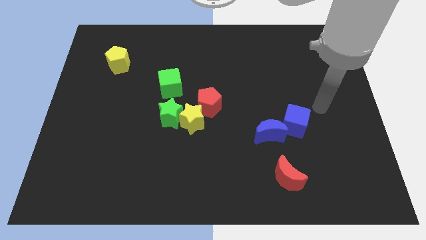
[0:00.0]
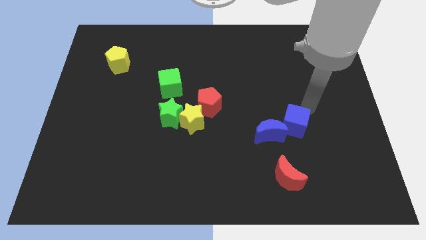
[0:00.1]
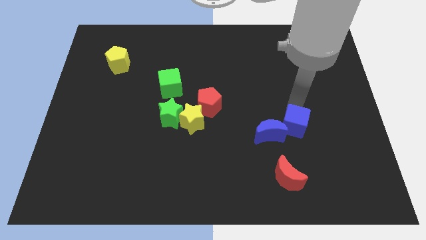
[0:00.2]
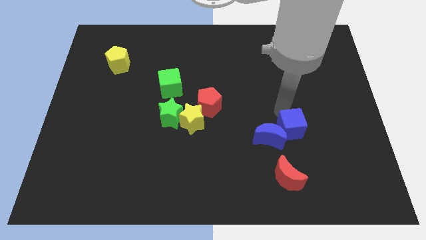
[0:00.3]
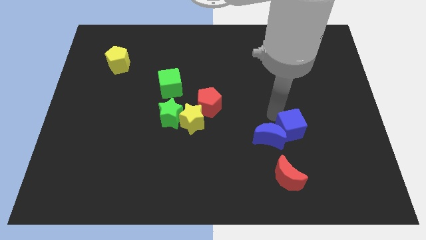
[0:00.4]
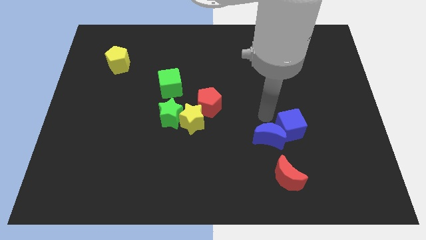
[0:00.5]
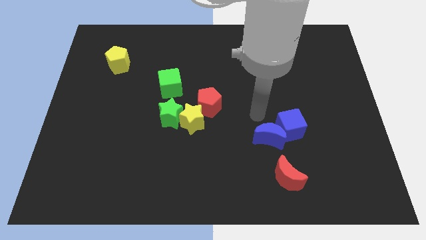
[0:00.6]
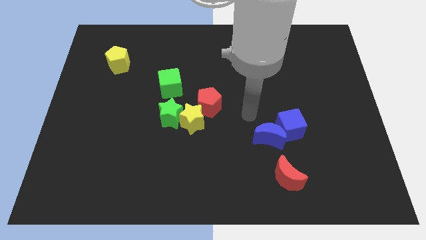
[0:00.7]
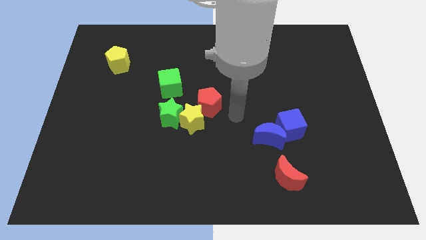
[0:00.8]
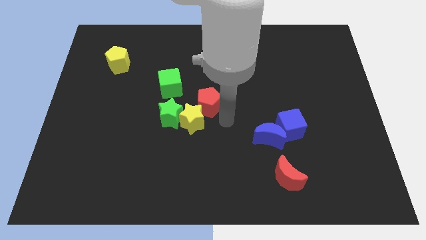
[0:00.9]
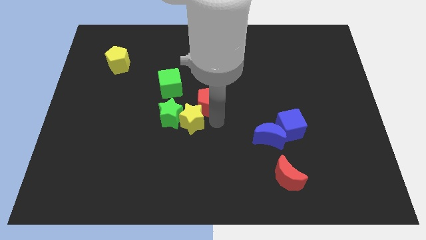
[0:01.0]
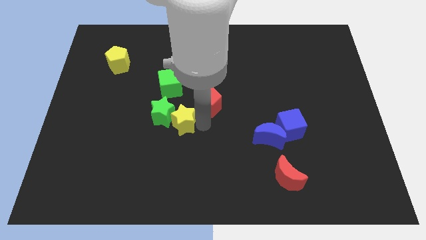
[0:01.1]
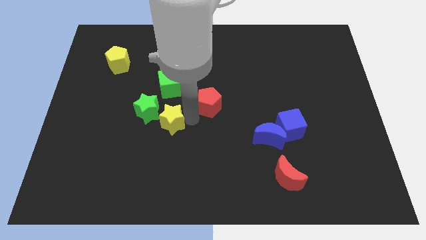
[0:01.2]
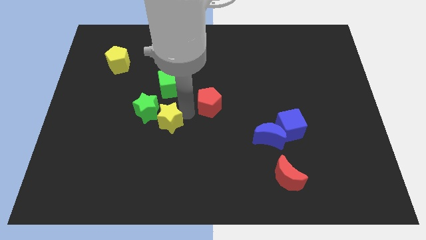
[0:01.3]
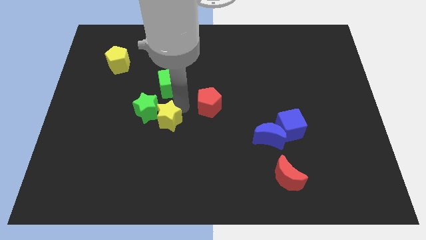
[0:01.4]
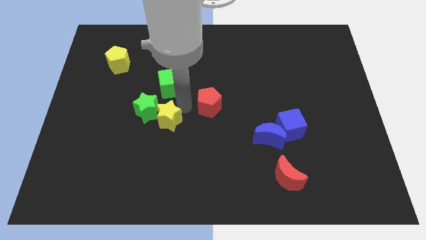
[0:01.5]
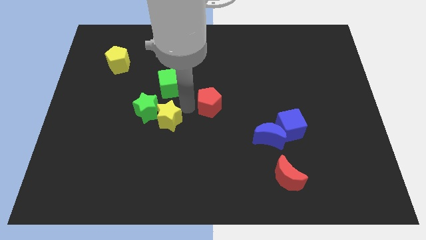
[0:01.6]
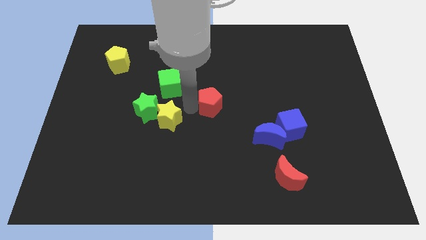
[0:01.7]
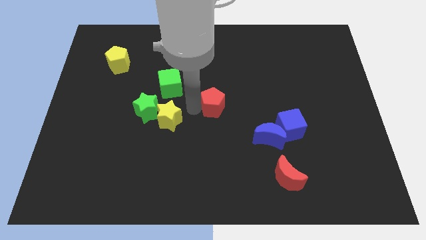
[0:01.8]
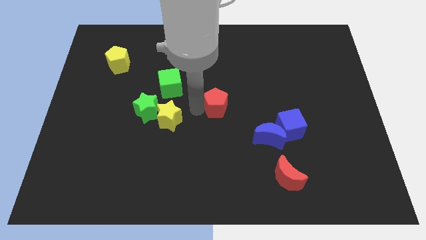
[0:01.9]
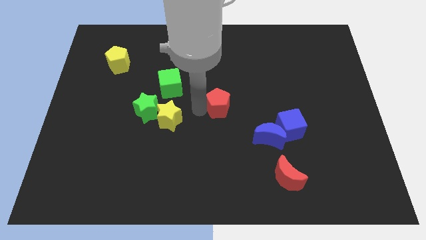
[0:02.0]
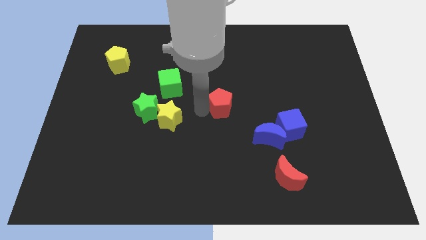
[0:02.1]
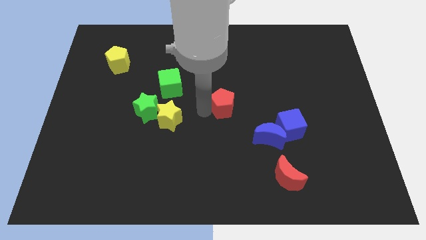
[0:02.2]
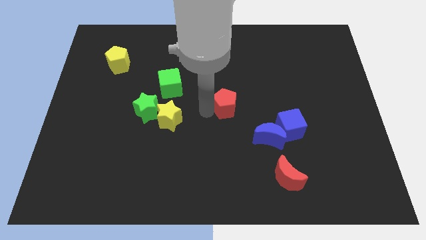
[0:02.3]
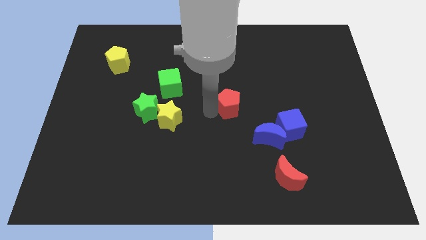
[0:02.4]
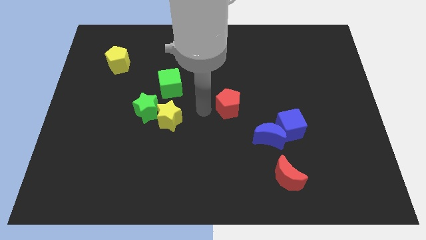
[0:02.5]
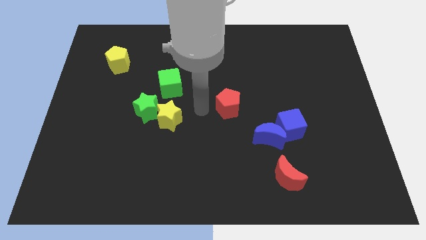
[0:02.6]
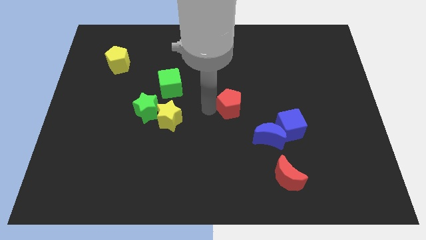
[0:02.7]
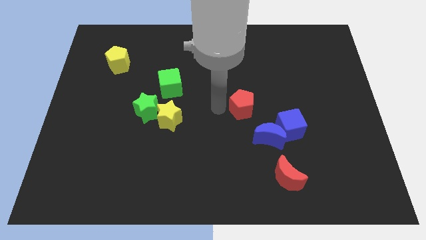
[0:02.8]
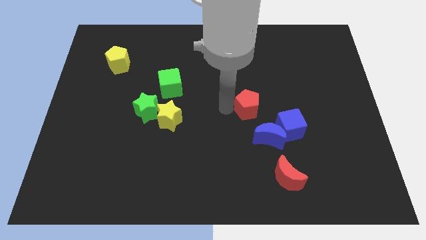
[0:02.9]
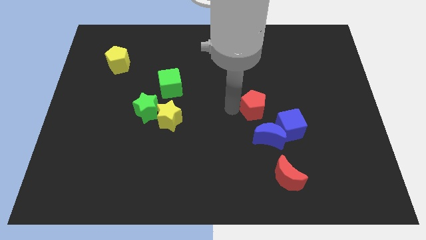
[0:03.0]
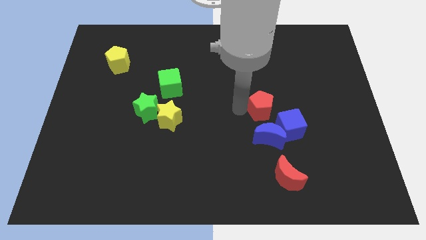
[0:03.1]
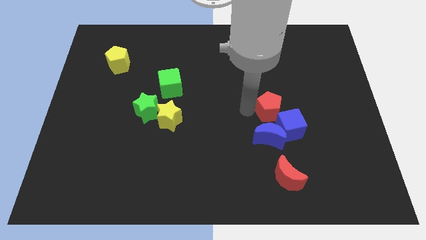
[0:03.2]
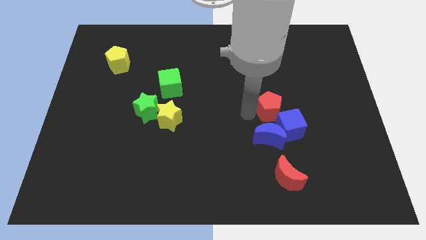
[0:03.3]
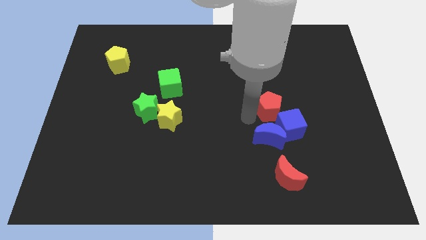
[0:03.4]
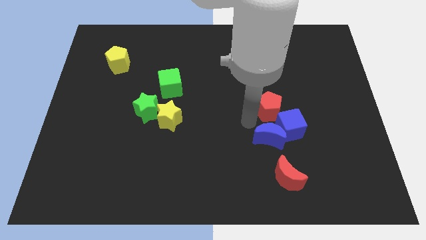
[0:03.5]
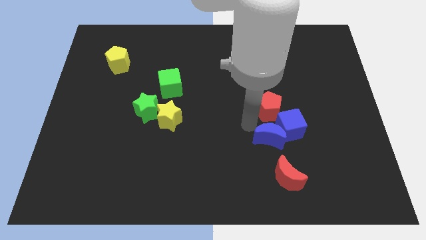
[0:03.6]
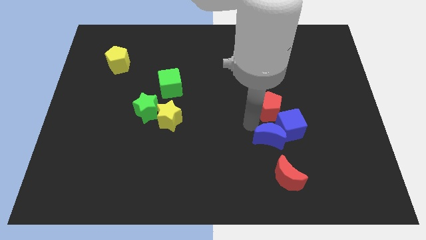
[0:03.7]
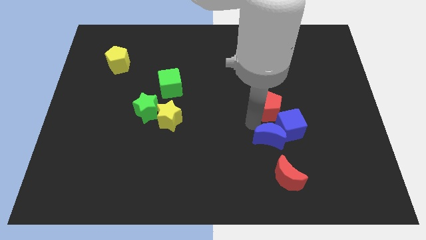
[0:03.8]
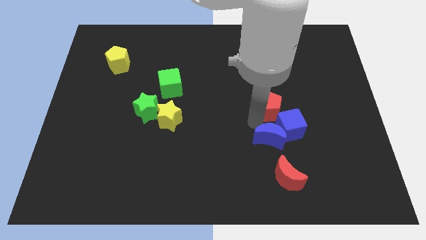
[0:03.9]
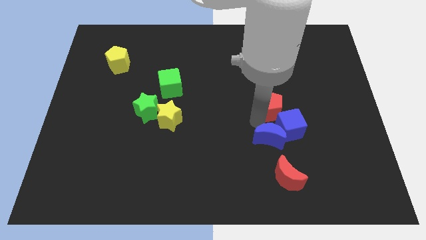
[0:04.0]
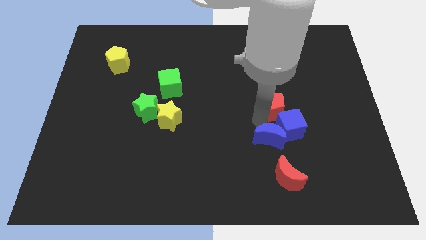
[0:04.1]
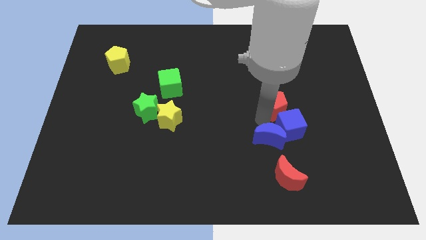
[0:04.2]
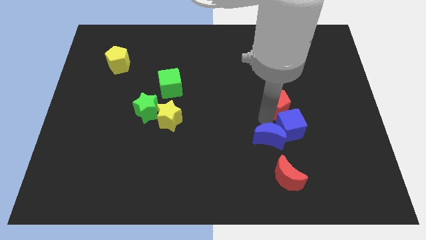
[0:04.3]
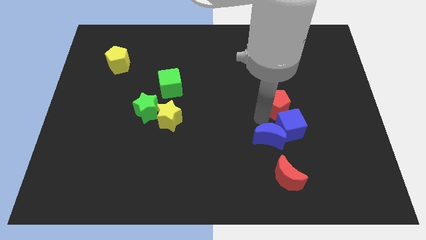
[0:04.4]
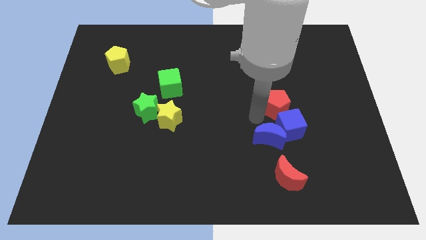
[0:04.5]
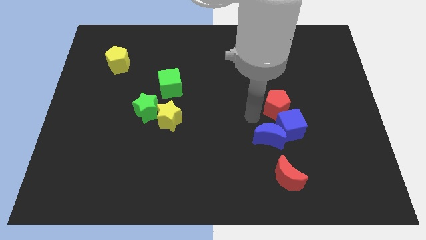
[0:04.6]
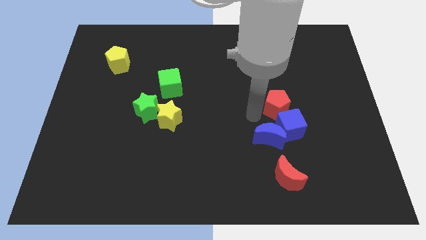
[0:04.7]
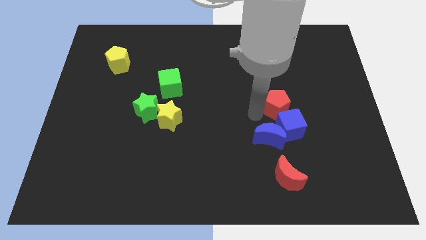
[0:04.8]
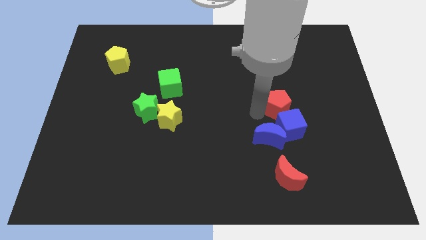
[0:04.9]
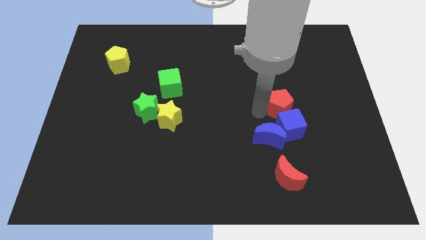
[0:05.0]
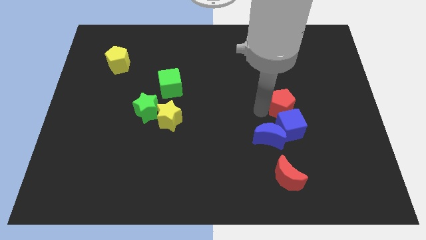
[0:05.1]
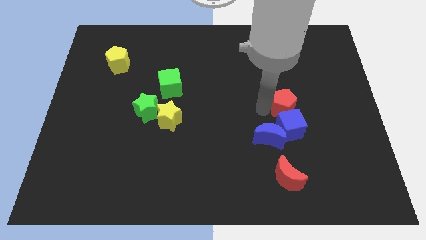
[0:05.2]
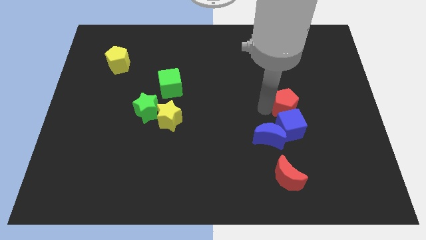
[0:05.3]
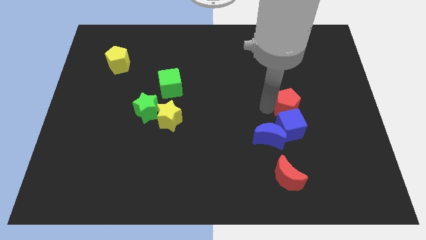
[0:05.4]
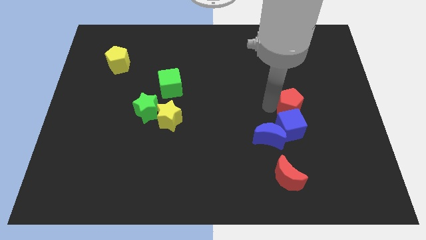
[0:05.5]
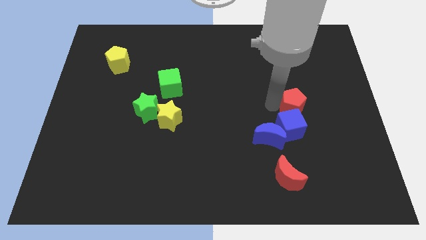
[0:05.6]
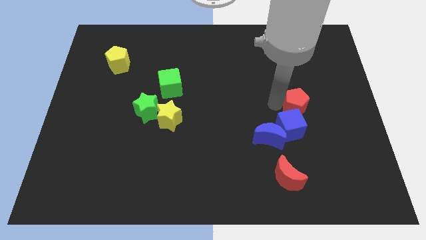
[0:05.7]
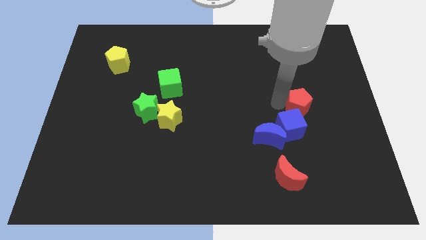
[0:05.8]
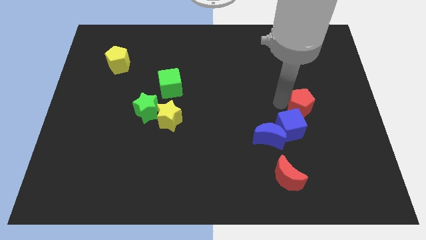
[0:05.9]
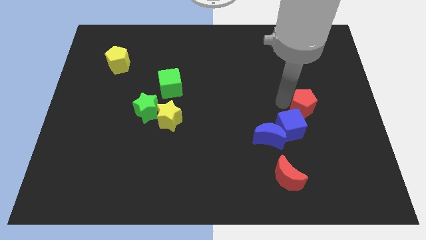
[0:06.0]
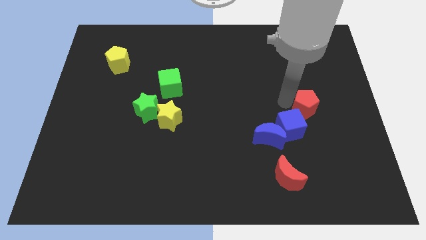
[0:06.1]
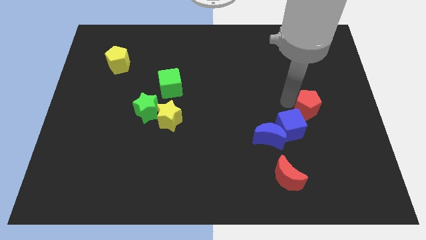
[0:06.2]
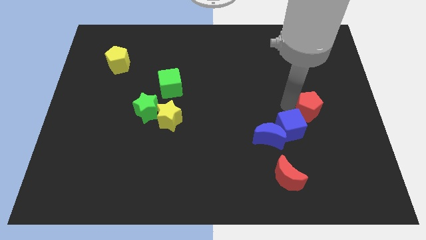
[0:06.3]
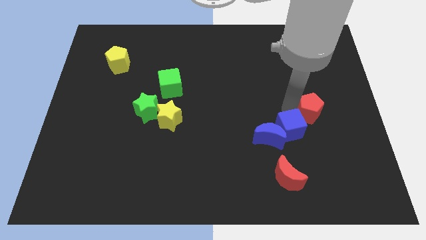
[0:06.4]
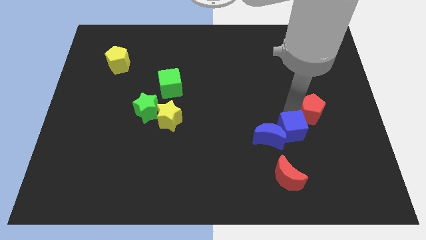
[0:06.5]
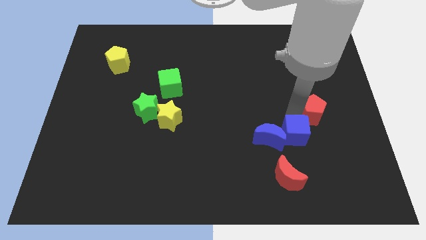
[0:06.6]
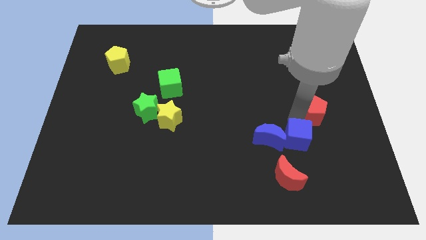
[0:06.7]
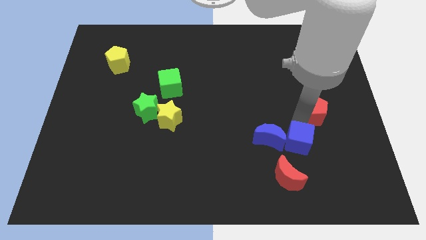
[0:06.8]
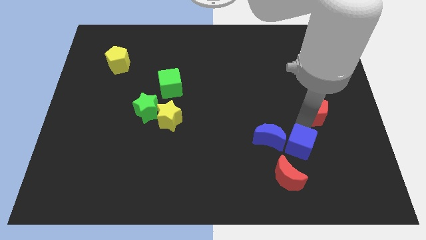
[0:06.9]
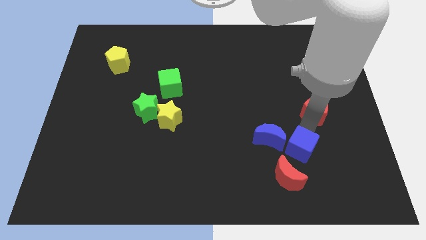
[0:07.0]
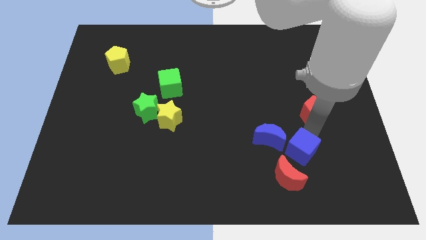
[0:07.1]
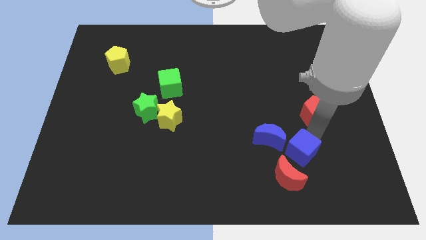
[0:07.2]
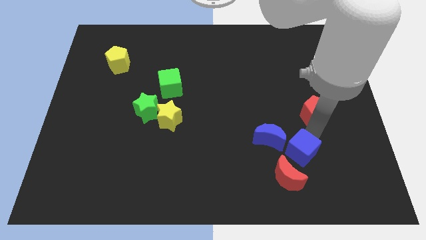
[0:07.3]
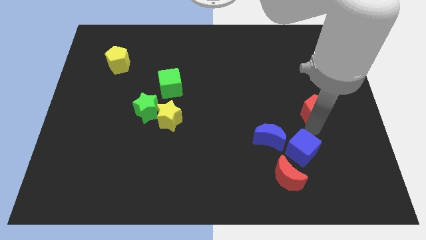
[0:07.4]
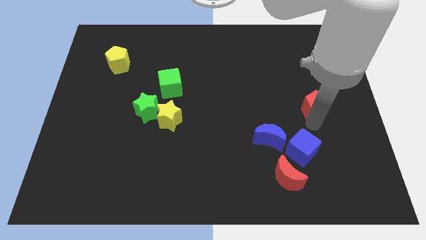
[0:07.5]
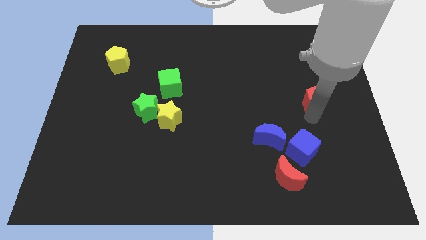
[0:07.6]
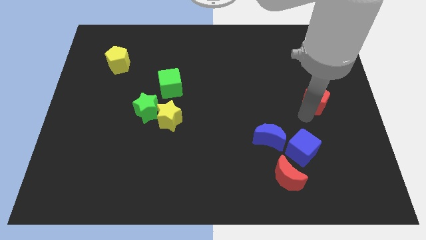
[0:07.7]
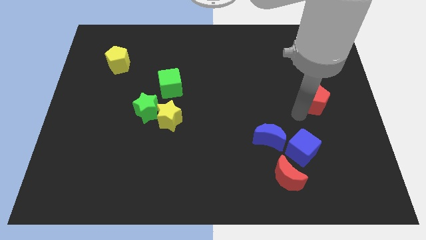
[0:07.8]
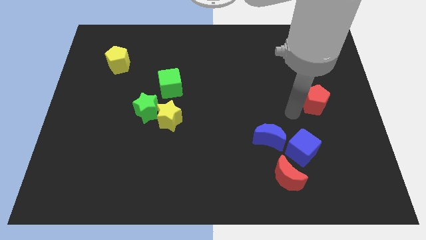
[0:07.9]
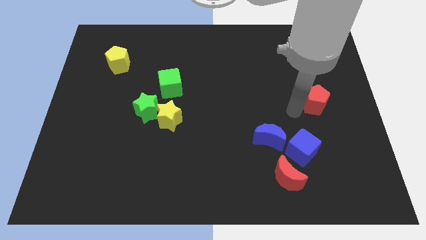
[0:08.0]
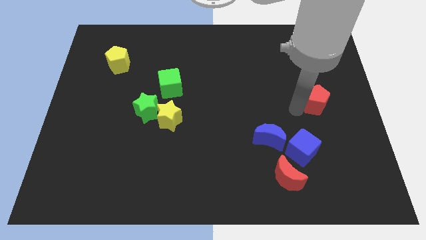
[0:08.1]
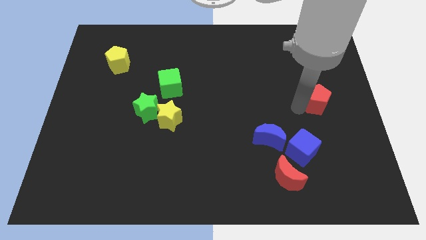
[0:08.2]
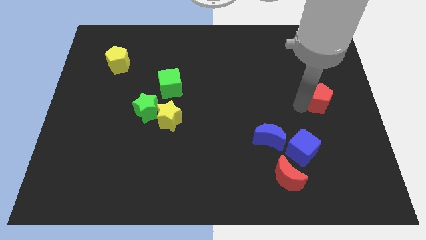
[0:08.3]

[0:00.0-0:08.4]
put the red pentagon to the right side
